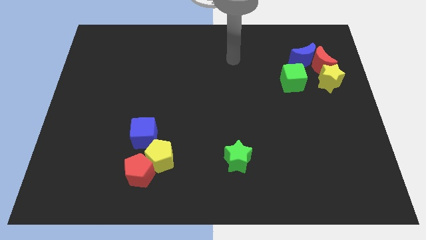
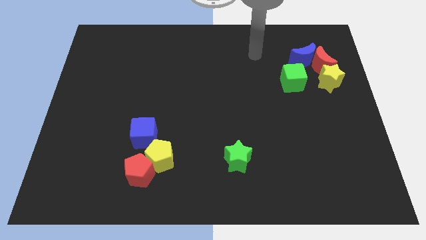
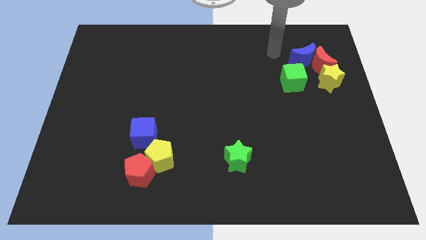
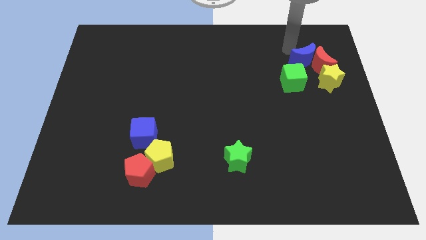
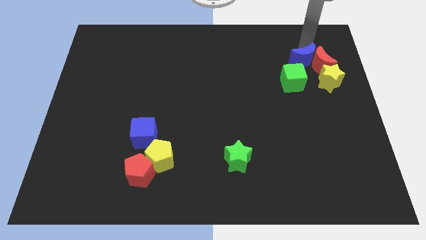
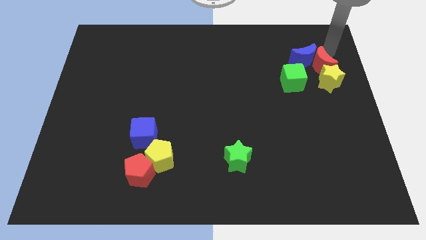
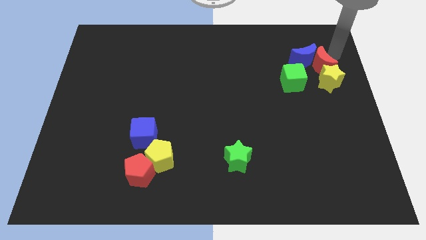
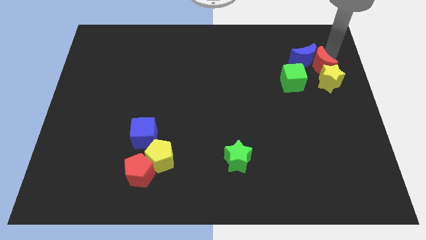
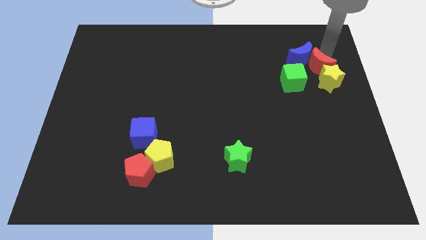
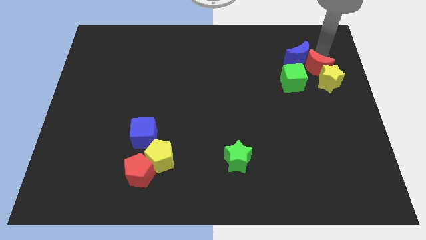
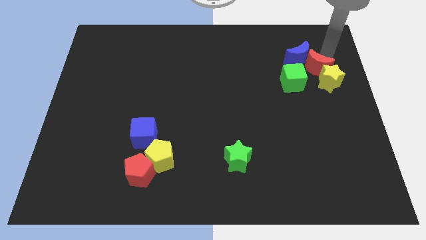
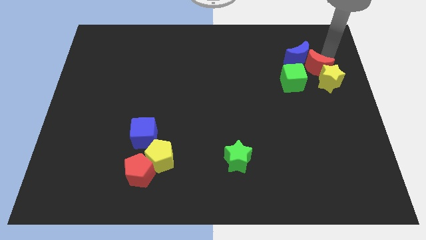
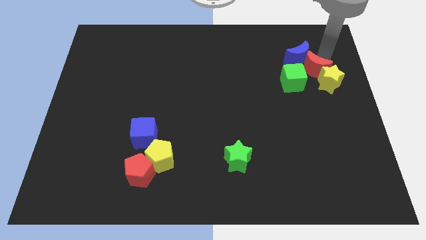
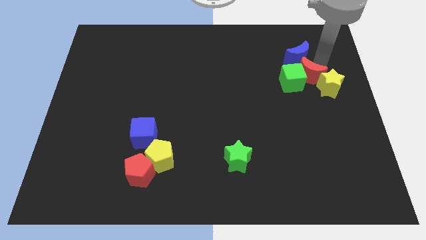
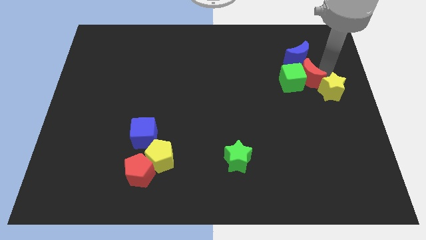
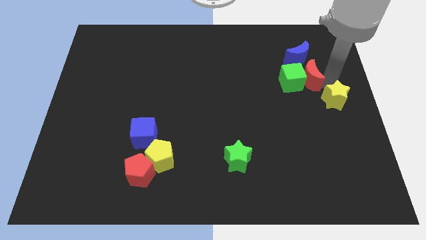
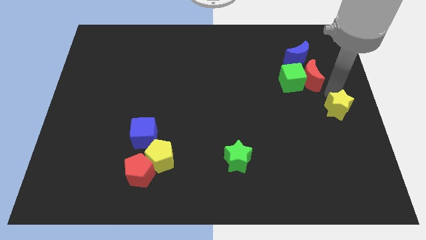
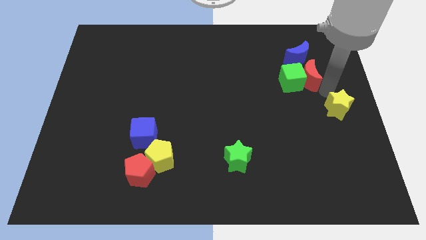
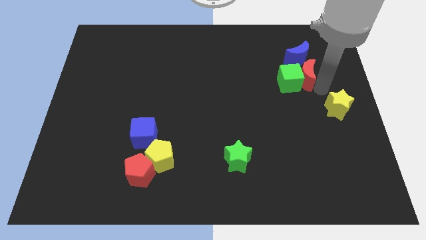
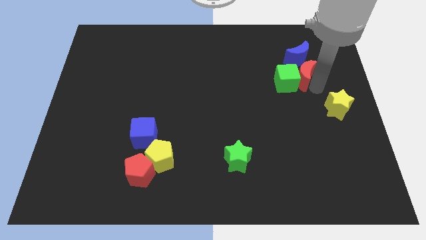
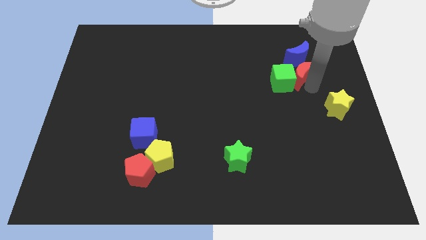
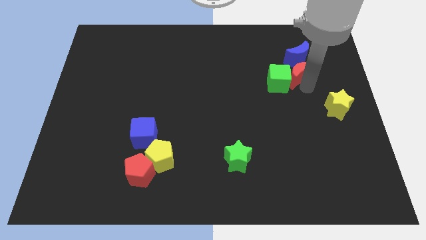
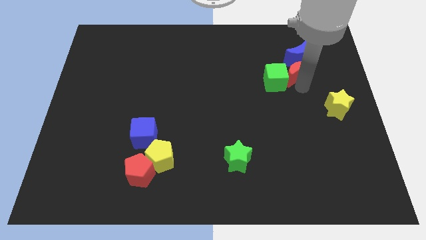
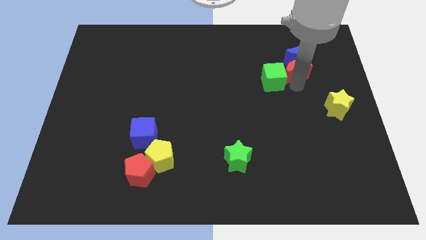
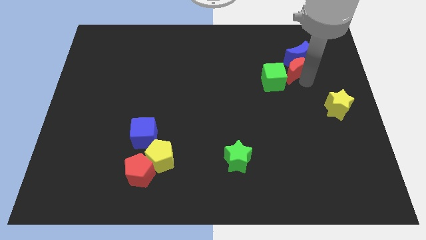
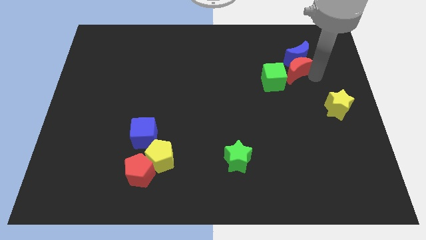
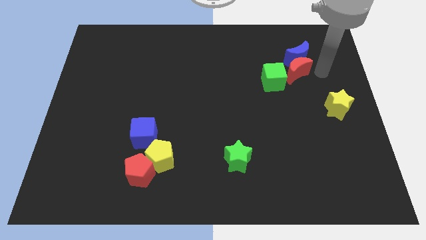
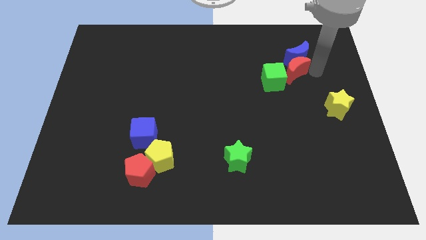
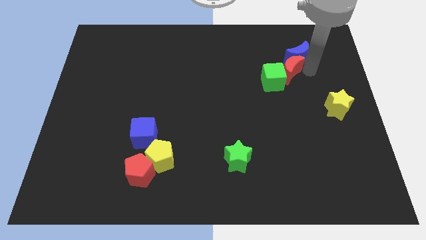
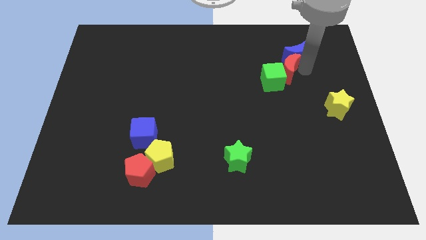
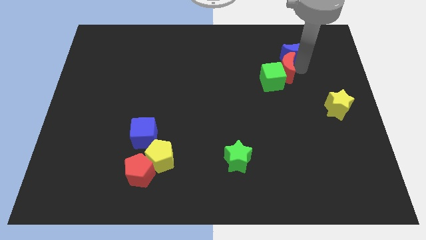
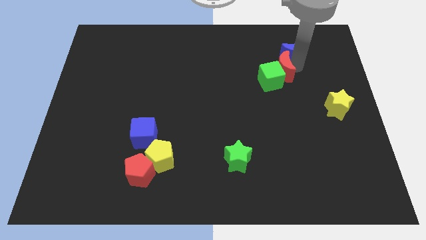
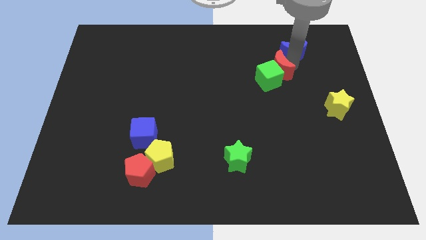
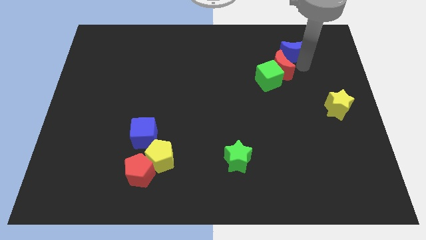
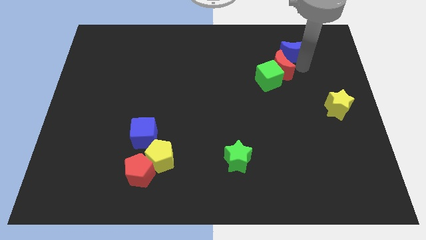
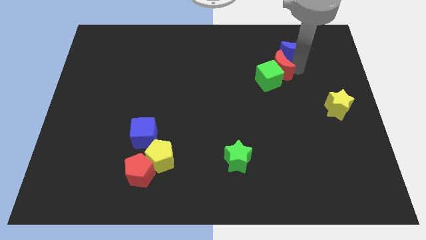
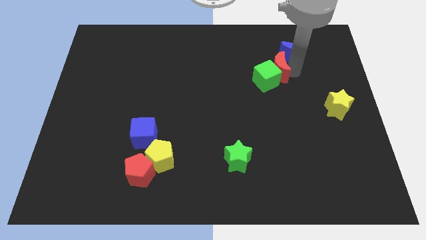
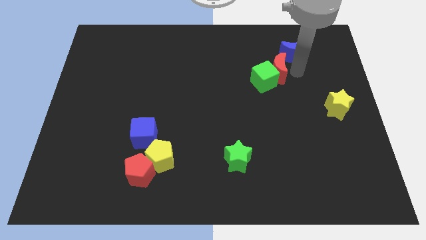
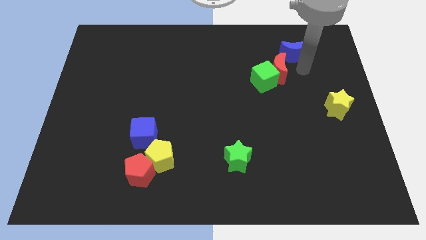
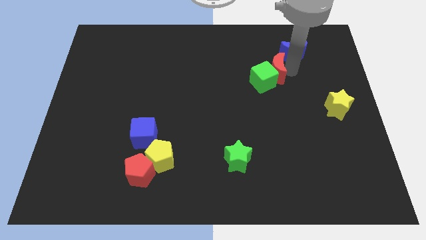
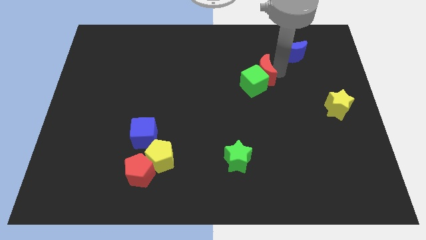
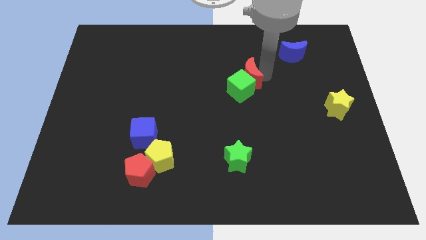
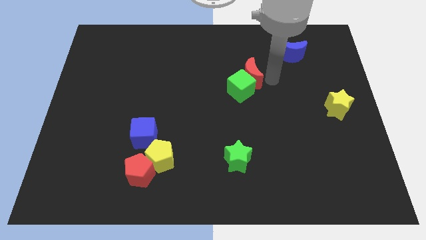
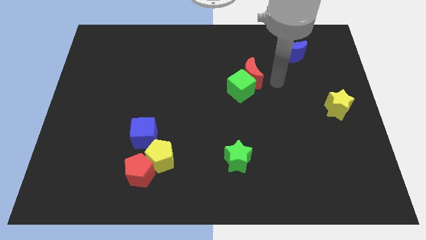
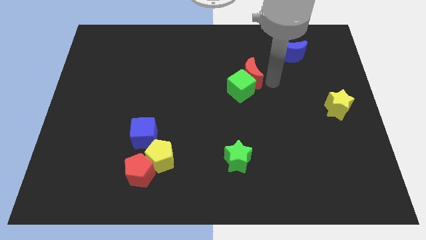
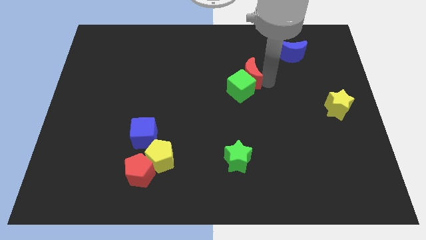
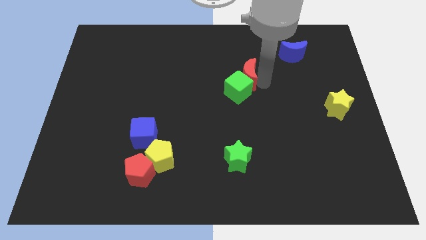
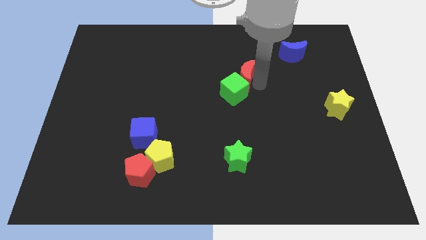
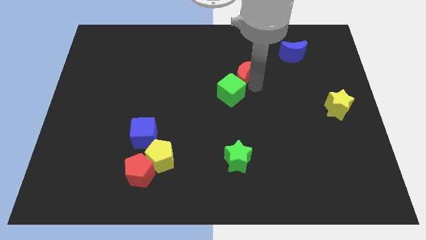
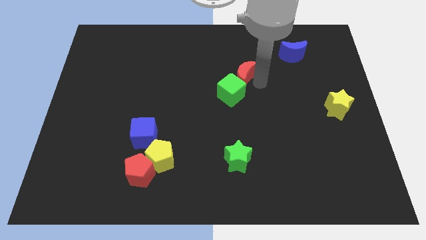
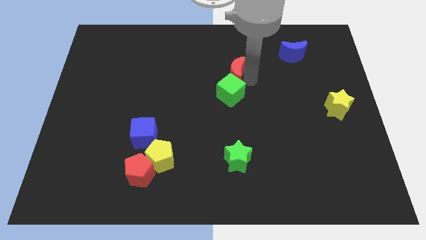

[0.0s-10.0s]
slide the red moon left

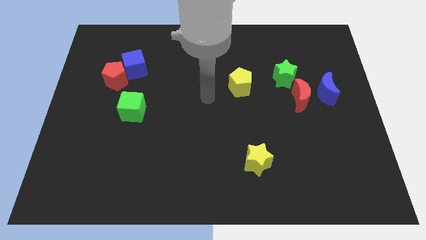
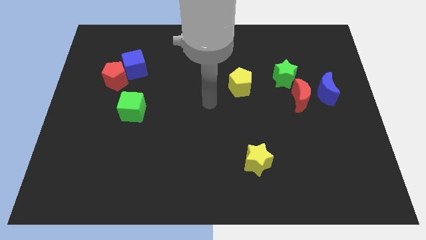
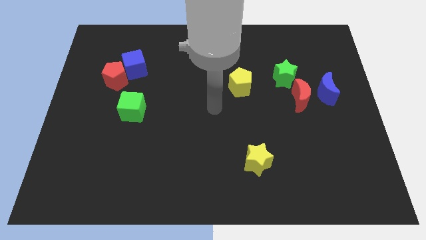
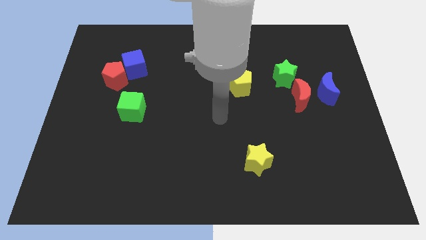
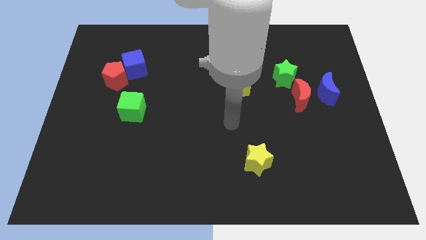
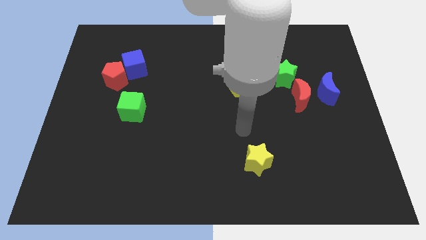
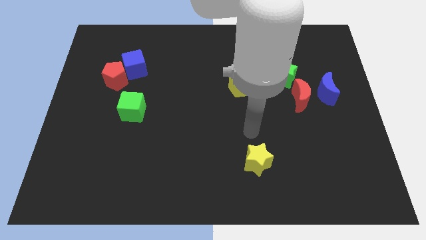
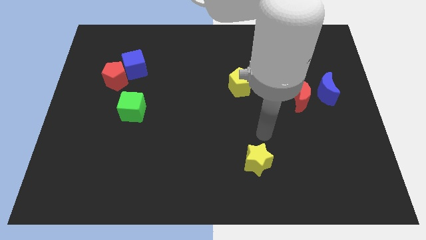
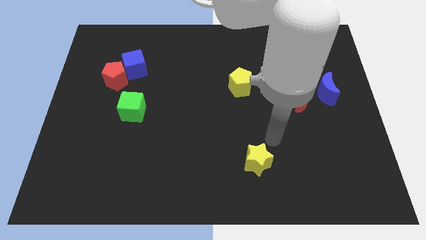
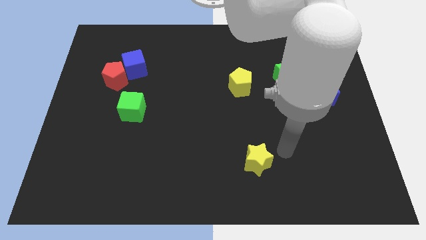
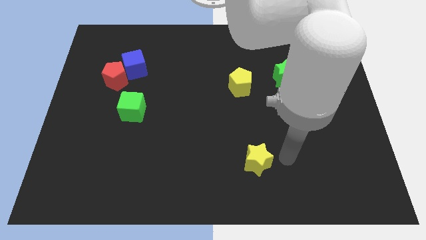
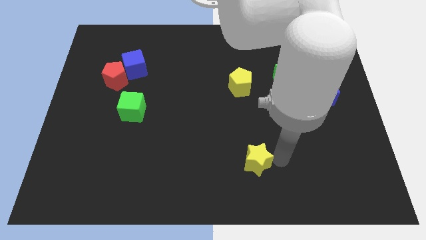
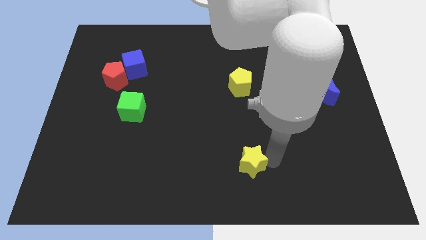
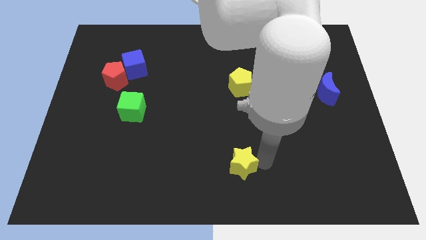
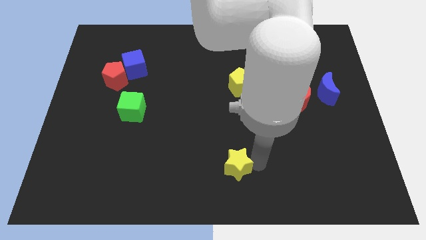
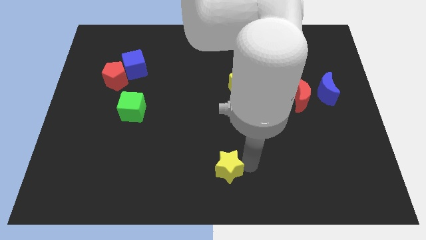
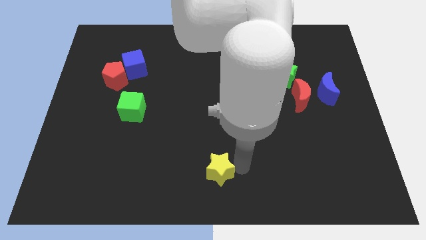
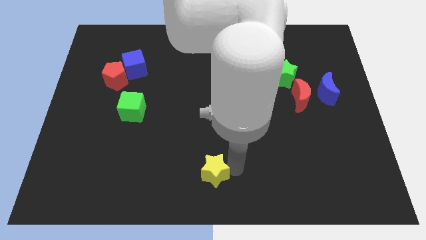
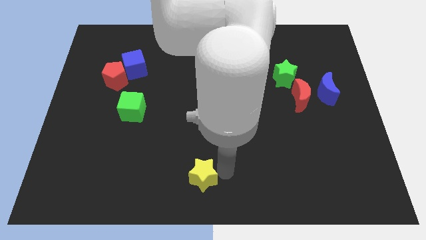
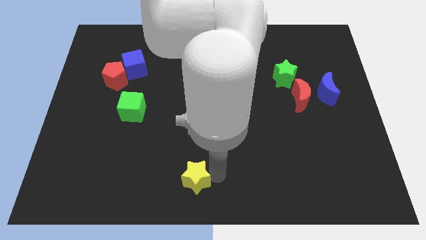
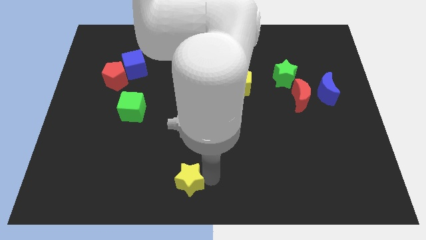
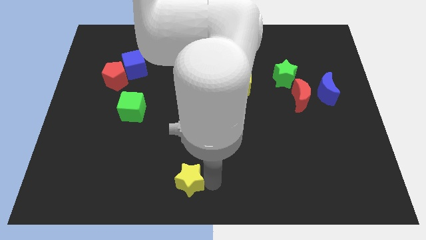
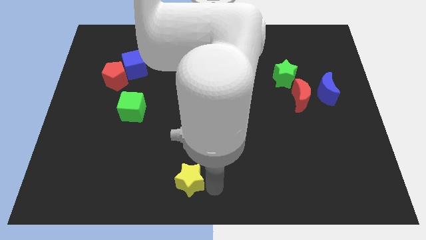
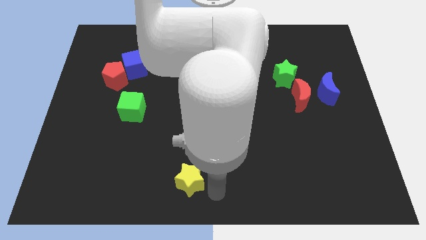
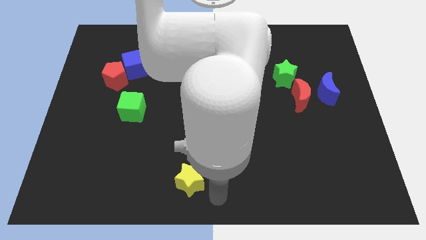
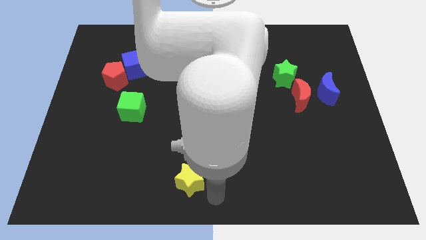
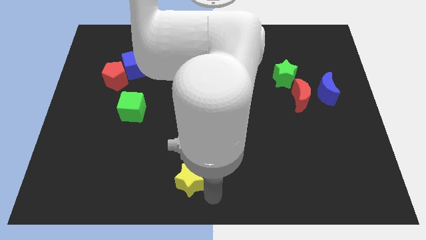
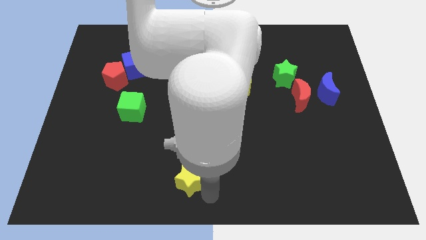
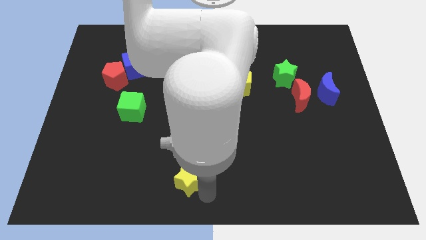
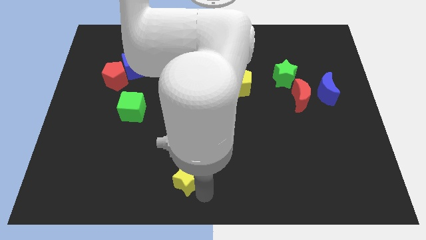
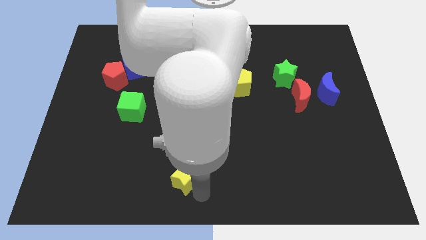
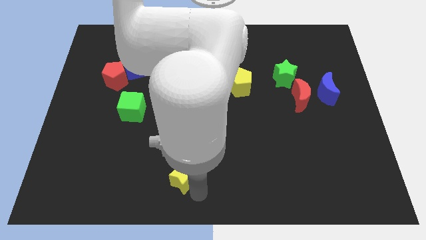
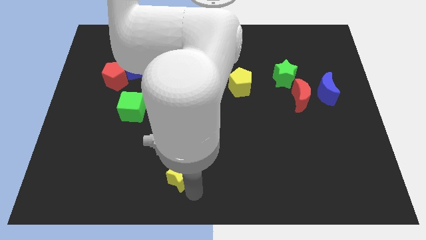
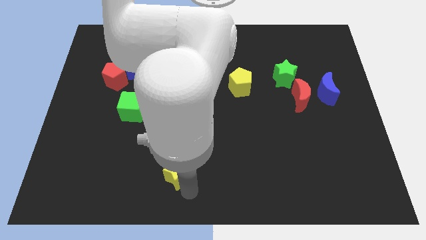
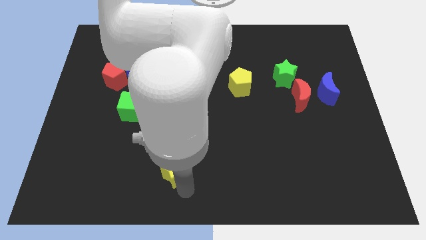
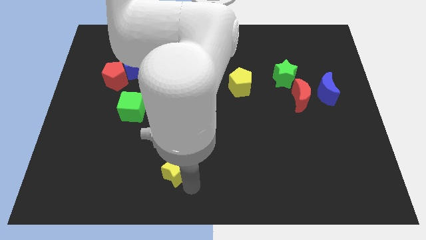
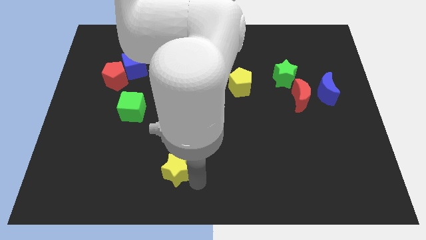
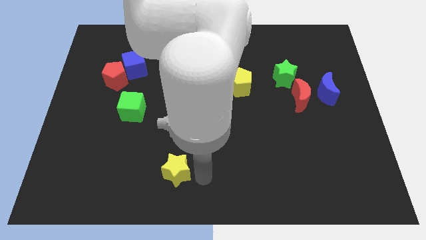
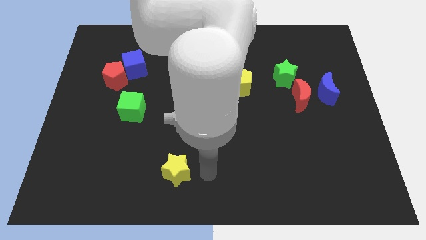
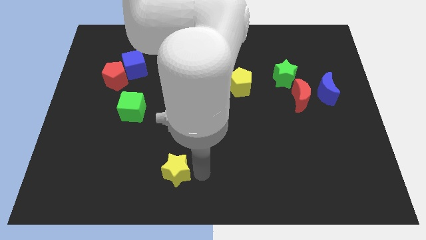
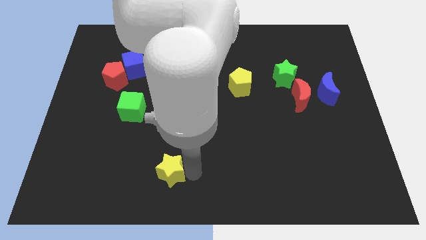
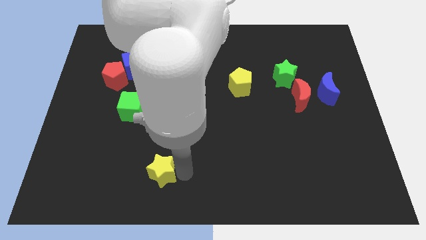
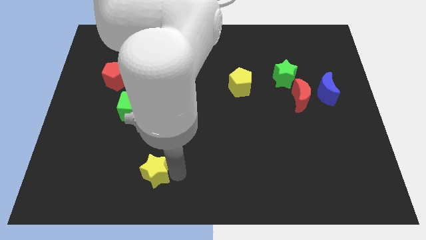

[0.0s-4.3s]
push the yellow star to the left
